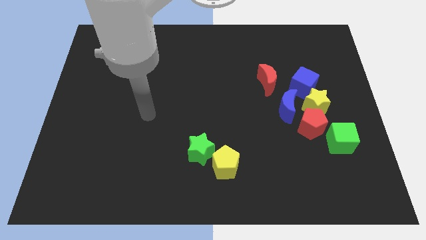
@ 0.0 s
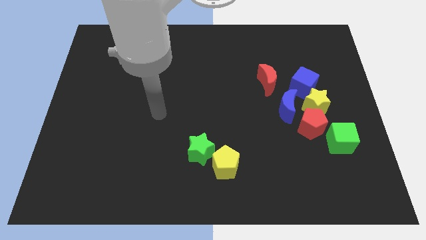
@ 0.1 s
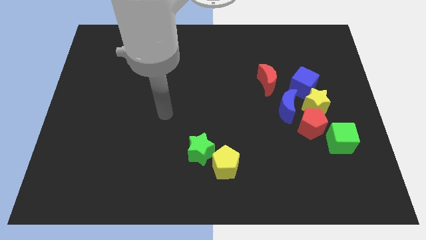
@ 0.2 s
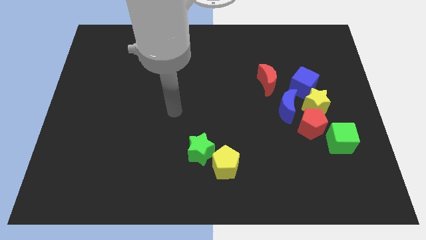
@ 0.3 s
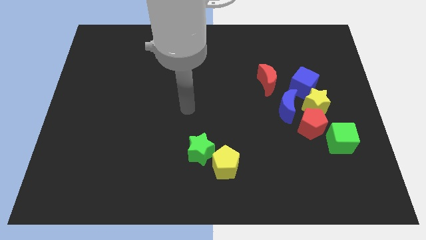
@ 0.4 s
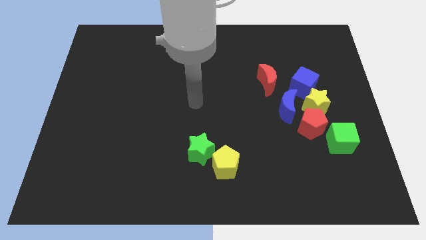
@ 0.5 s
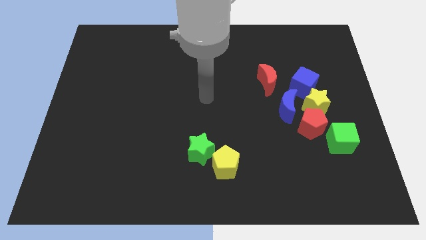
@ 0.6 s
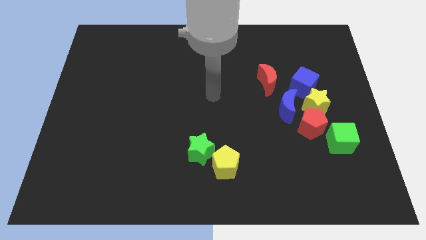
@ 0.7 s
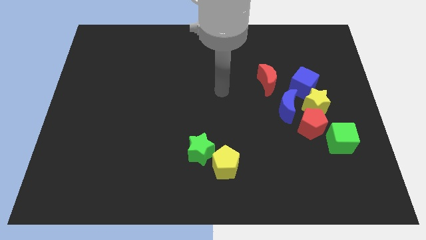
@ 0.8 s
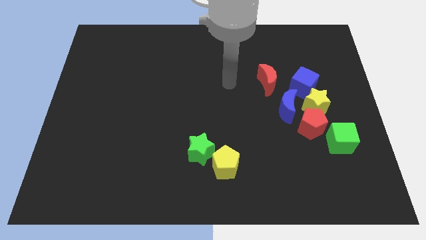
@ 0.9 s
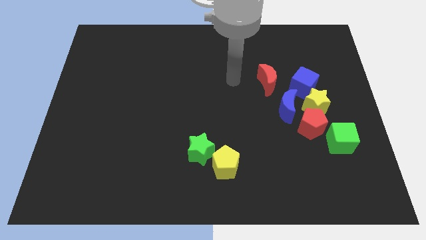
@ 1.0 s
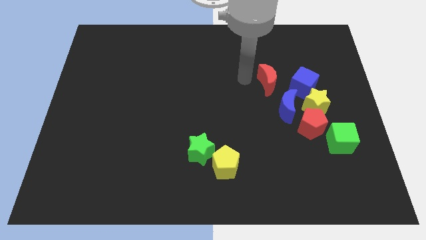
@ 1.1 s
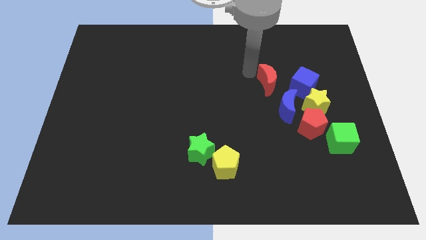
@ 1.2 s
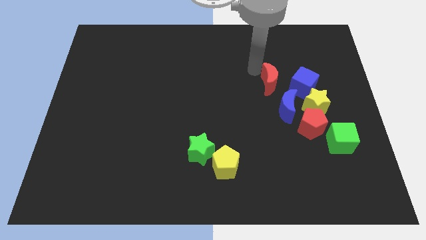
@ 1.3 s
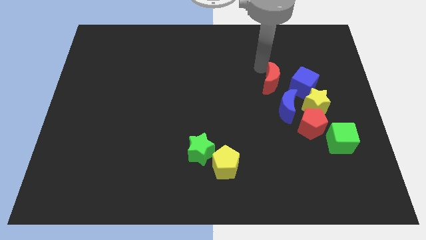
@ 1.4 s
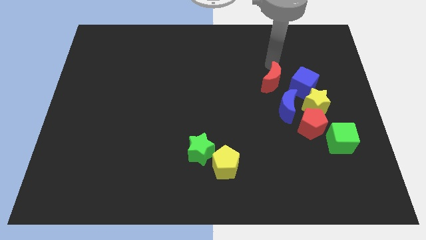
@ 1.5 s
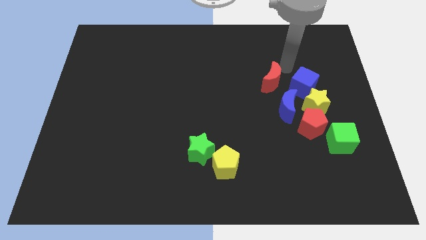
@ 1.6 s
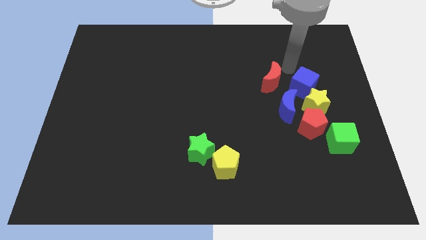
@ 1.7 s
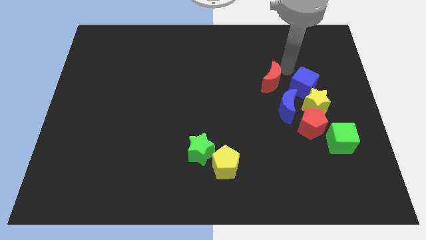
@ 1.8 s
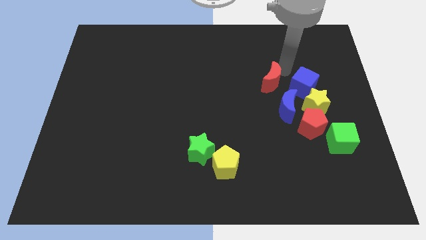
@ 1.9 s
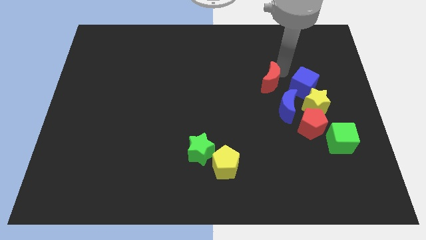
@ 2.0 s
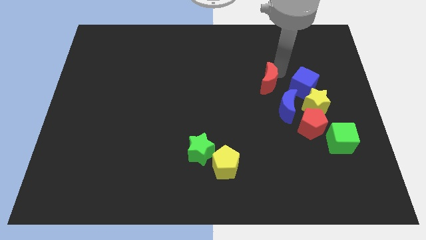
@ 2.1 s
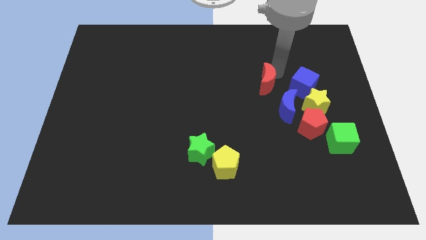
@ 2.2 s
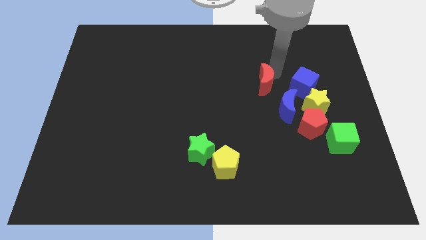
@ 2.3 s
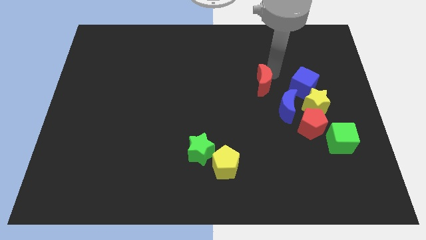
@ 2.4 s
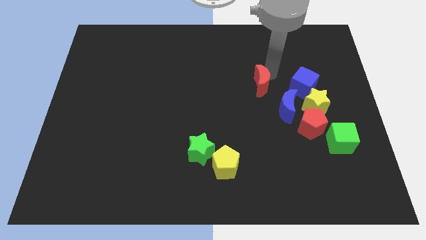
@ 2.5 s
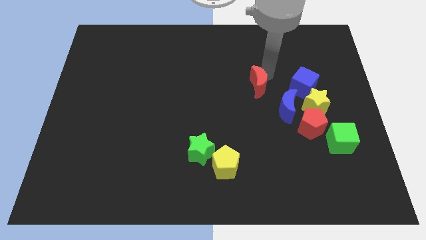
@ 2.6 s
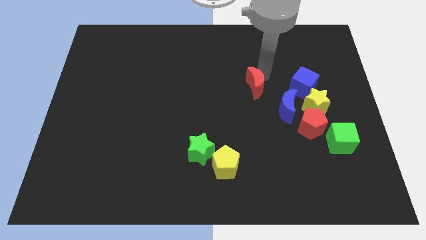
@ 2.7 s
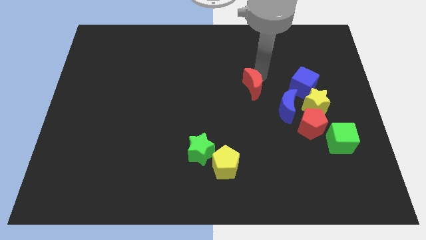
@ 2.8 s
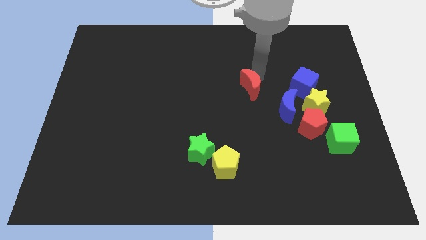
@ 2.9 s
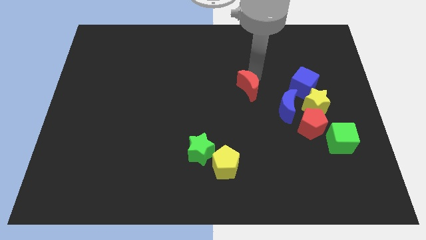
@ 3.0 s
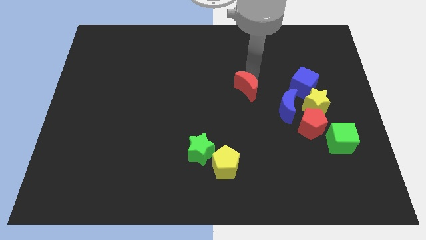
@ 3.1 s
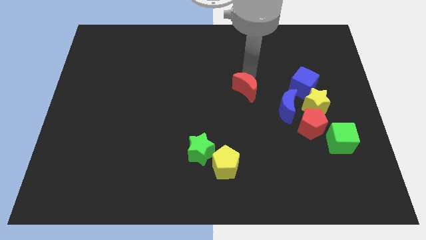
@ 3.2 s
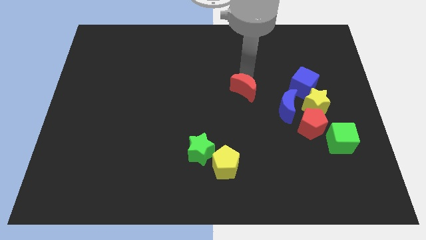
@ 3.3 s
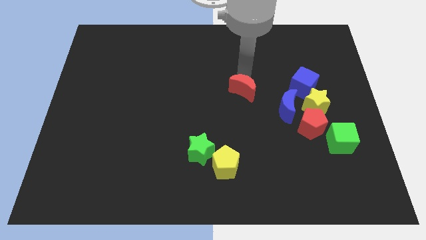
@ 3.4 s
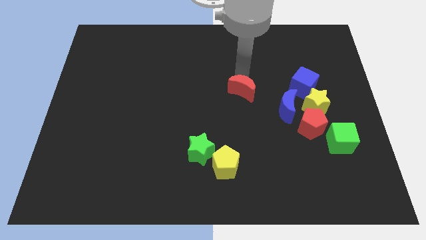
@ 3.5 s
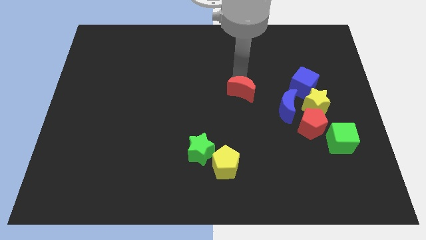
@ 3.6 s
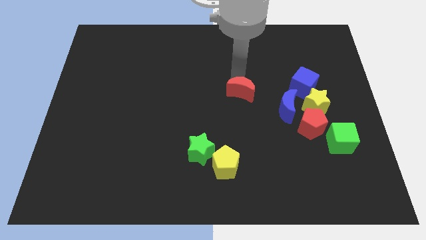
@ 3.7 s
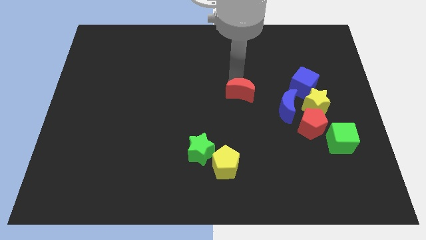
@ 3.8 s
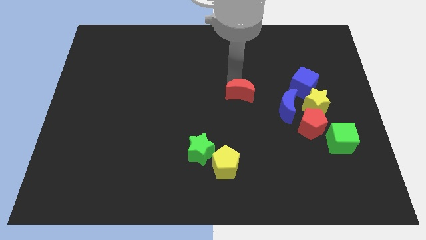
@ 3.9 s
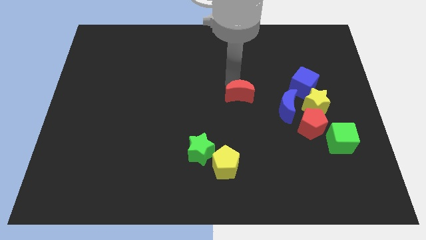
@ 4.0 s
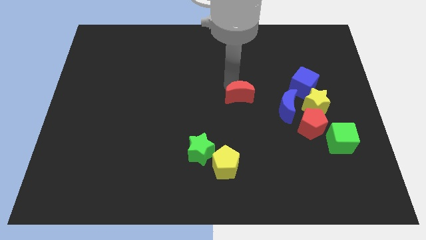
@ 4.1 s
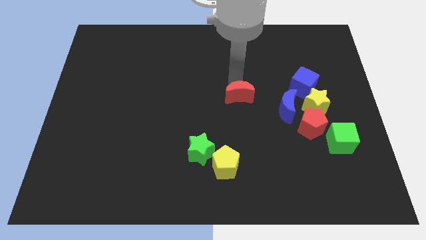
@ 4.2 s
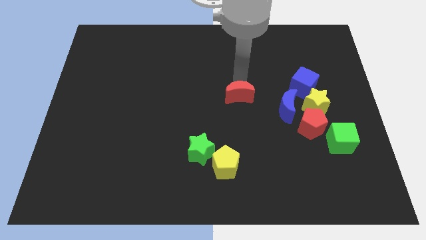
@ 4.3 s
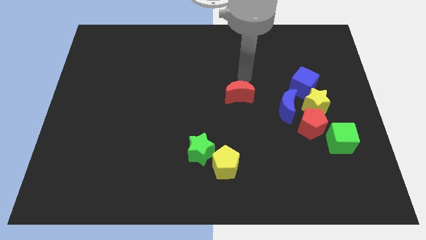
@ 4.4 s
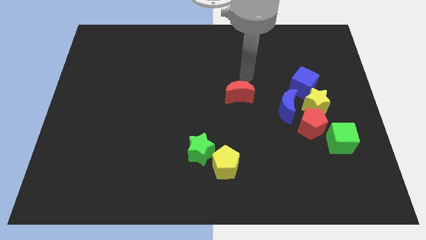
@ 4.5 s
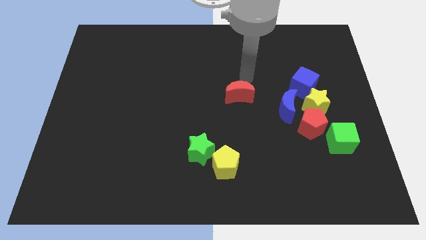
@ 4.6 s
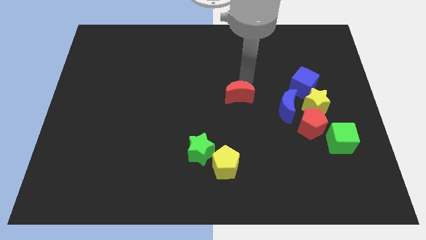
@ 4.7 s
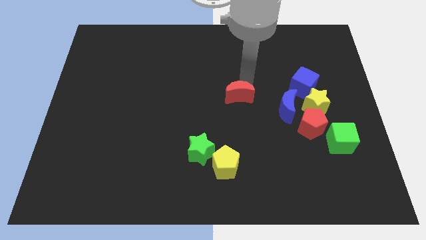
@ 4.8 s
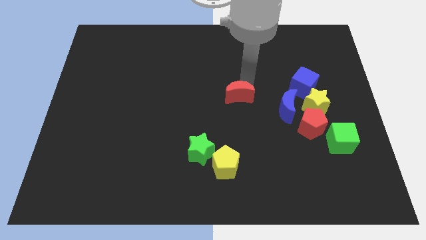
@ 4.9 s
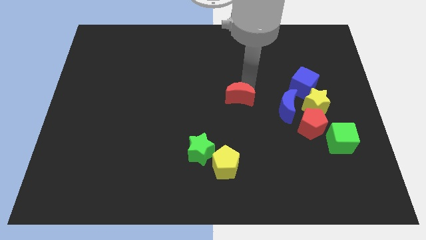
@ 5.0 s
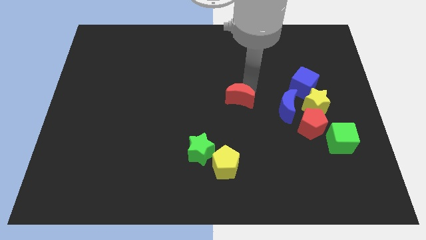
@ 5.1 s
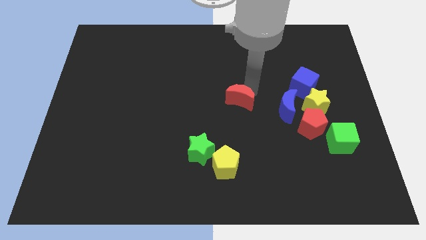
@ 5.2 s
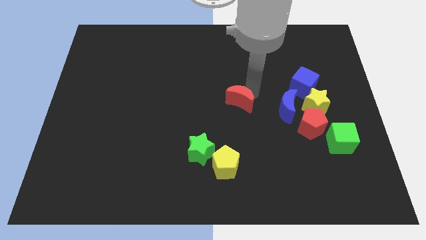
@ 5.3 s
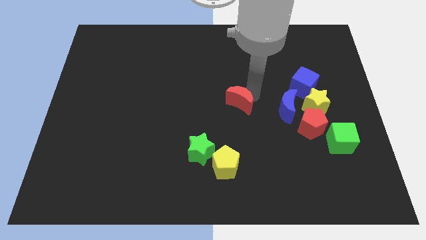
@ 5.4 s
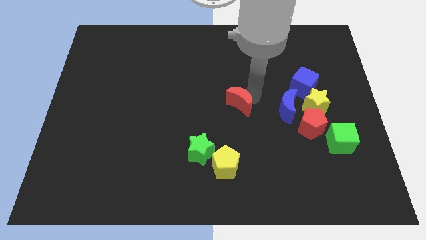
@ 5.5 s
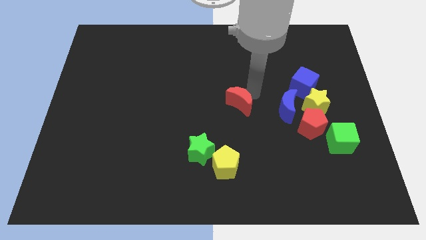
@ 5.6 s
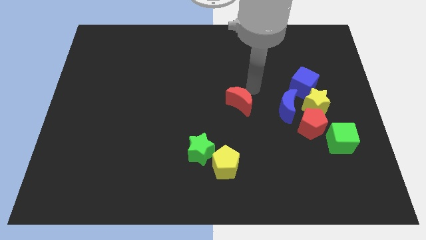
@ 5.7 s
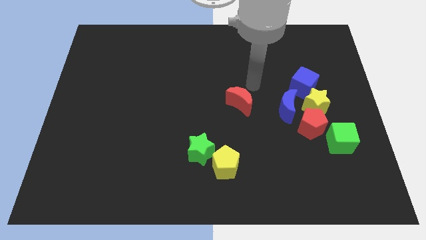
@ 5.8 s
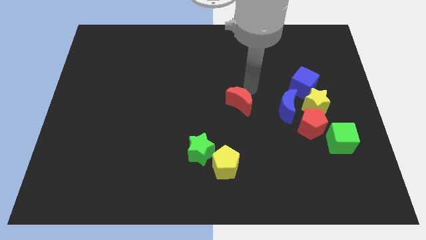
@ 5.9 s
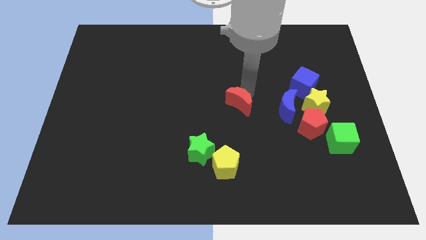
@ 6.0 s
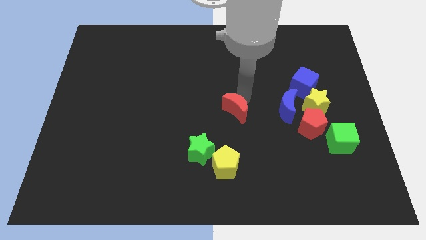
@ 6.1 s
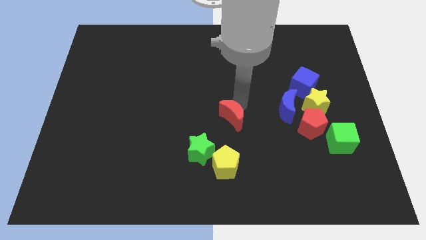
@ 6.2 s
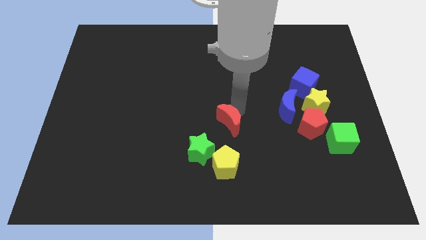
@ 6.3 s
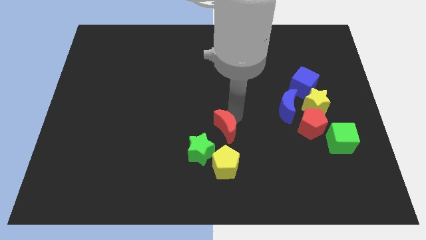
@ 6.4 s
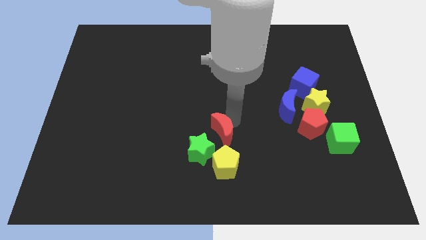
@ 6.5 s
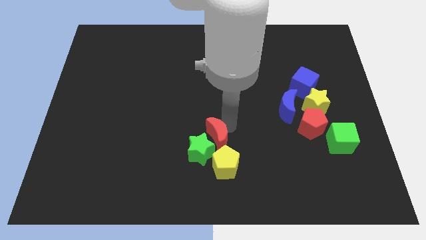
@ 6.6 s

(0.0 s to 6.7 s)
put the red moon next to the green star
